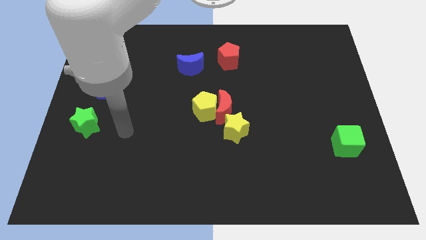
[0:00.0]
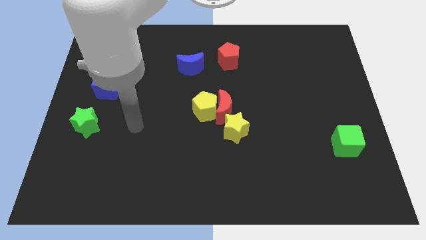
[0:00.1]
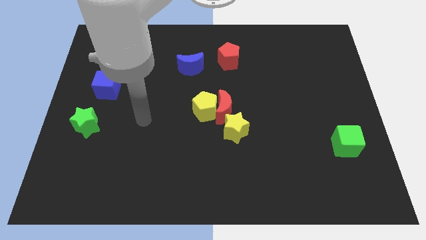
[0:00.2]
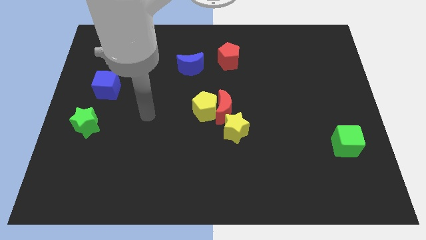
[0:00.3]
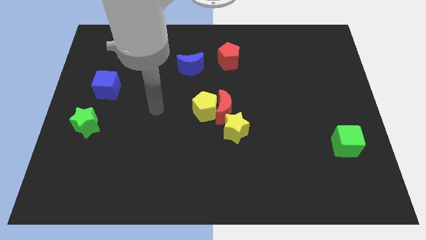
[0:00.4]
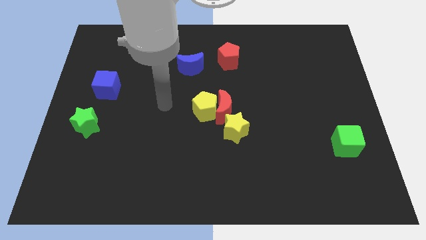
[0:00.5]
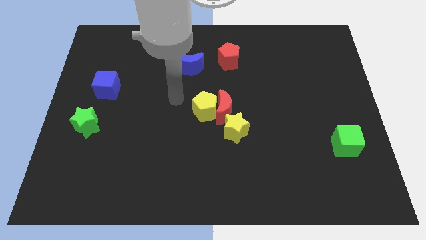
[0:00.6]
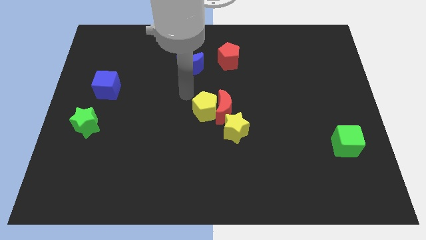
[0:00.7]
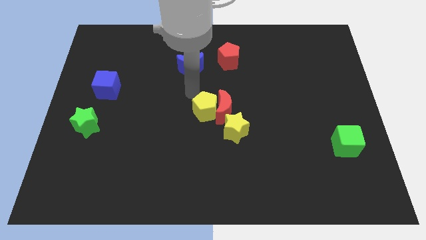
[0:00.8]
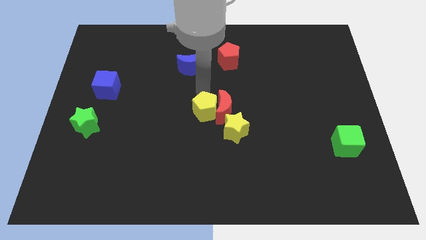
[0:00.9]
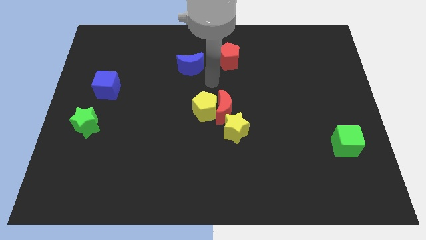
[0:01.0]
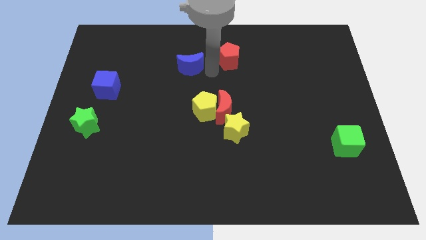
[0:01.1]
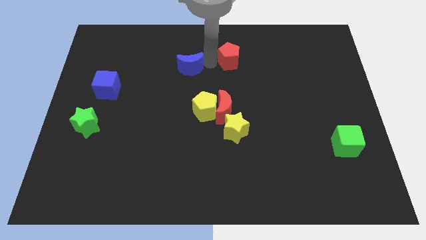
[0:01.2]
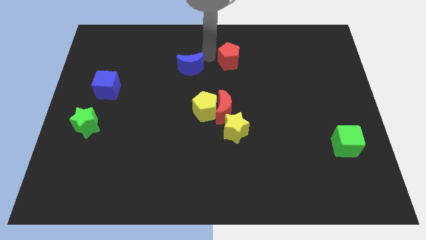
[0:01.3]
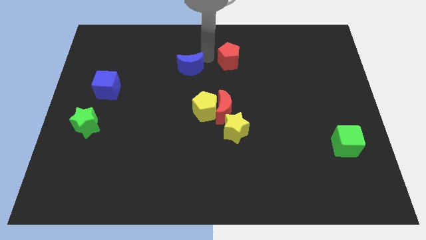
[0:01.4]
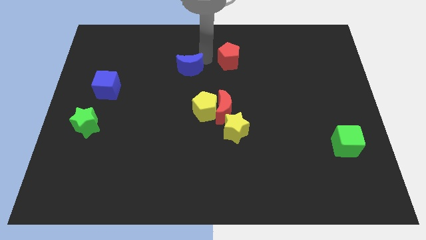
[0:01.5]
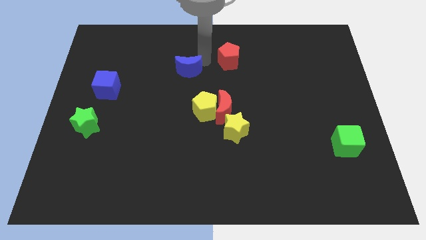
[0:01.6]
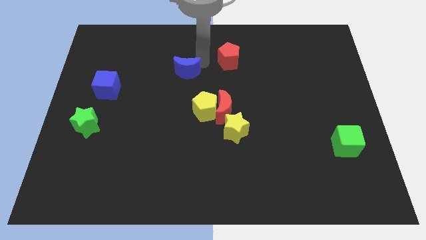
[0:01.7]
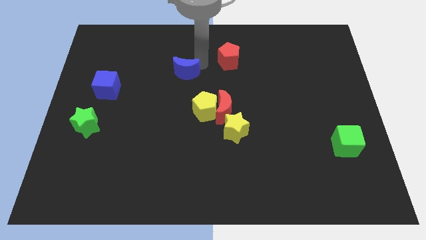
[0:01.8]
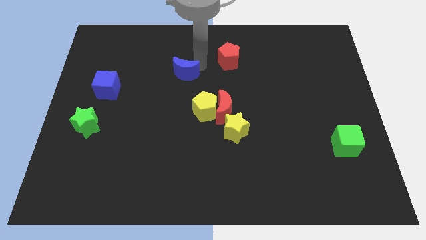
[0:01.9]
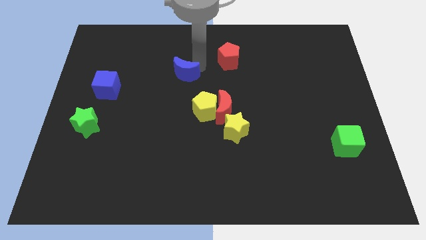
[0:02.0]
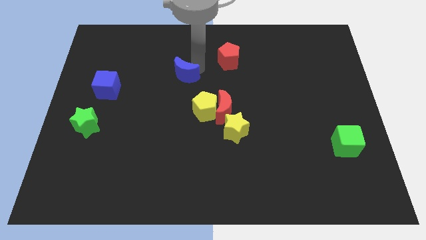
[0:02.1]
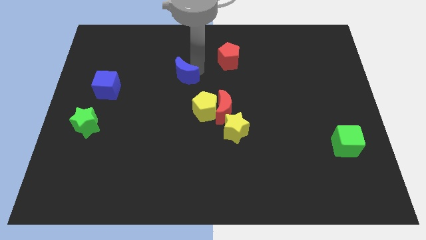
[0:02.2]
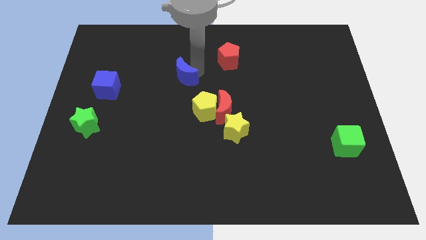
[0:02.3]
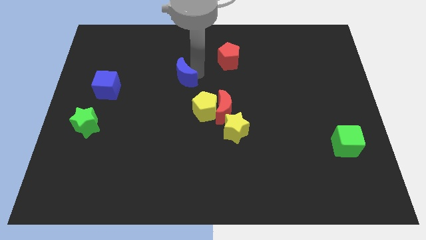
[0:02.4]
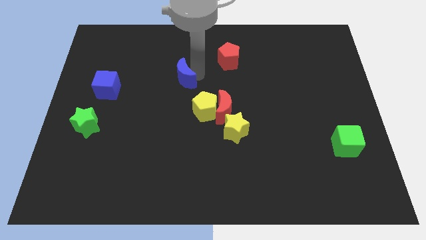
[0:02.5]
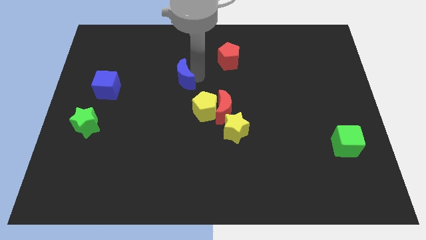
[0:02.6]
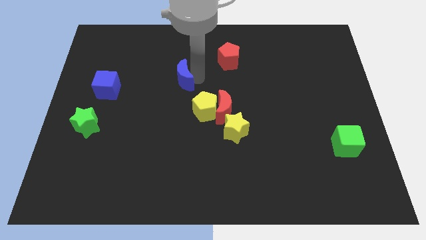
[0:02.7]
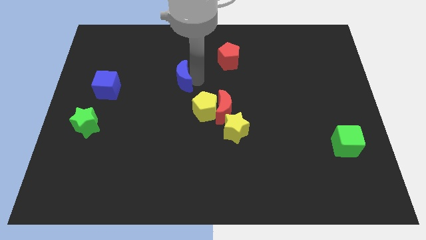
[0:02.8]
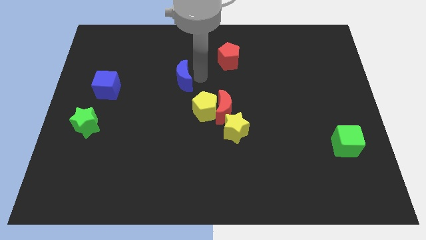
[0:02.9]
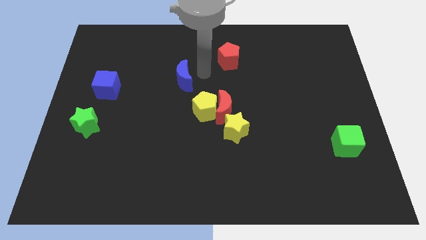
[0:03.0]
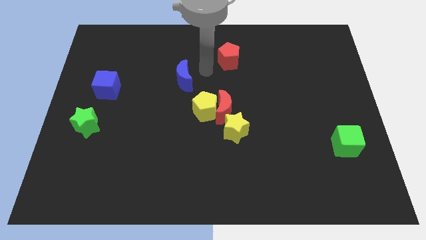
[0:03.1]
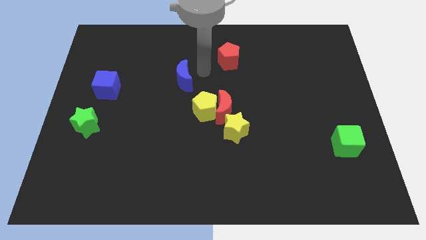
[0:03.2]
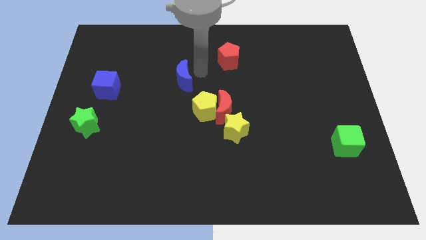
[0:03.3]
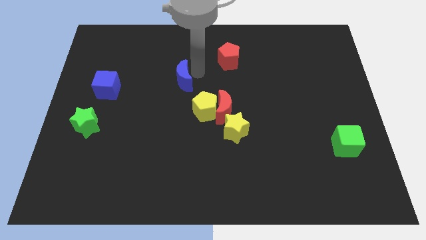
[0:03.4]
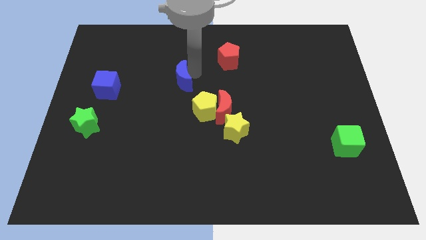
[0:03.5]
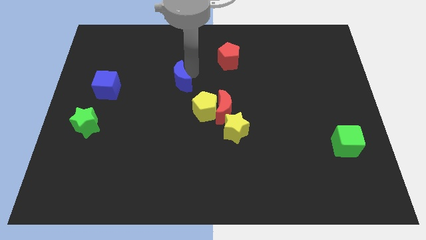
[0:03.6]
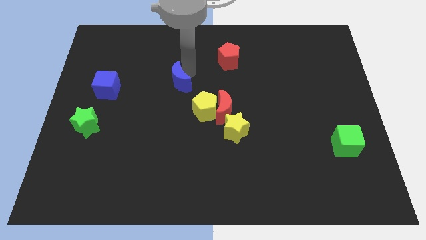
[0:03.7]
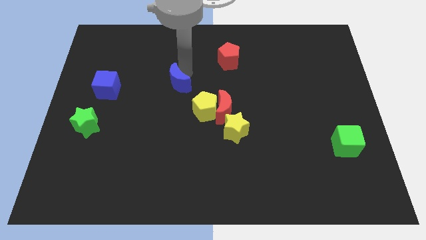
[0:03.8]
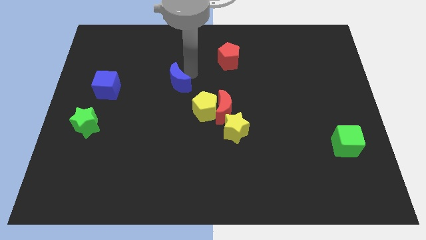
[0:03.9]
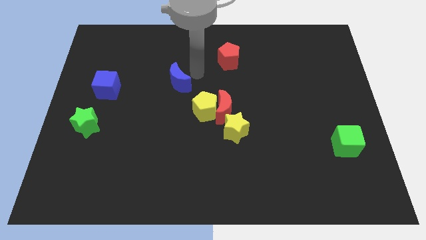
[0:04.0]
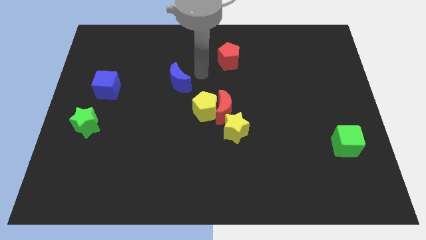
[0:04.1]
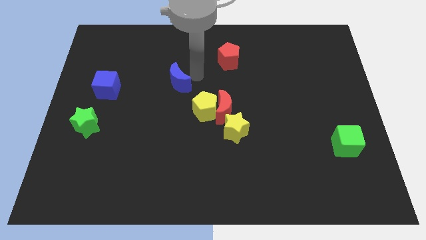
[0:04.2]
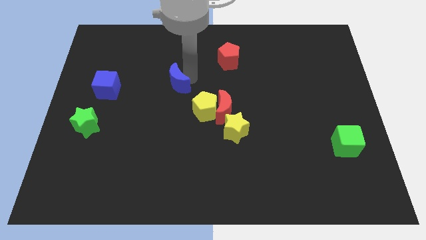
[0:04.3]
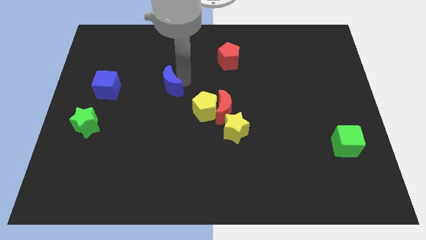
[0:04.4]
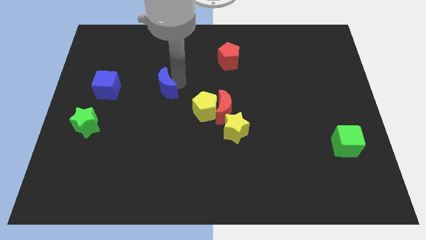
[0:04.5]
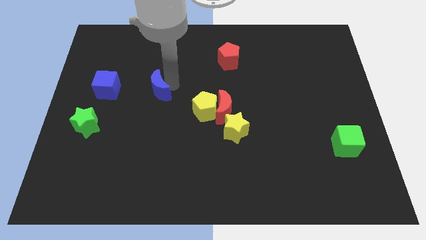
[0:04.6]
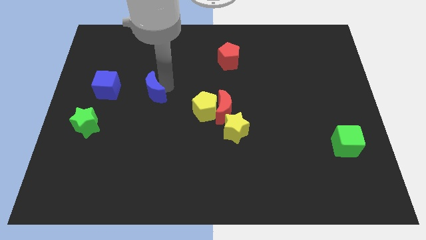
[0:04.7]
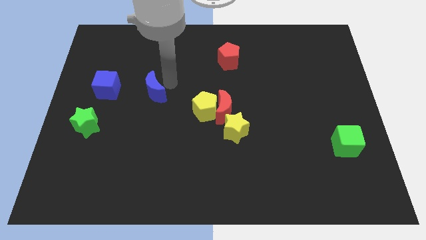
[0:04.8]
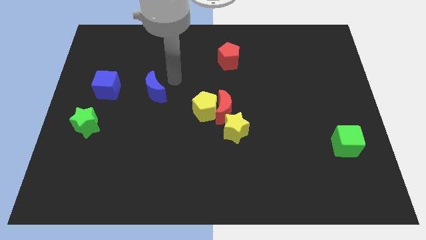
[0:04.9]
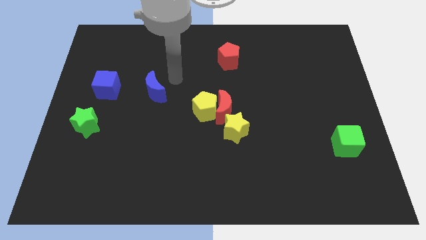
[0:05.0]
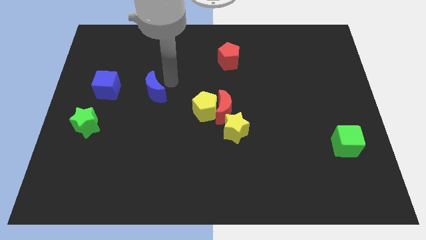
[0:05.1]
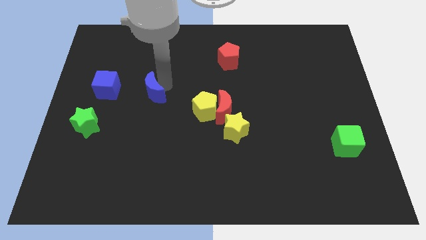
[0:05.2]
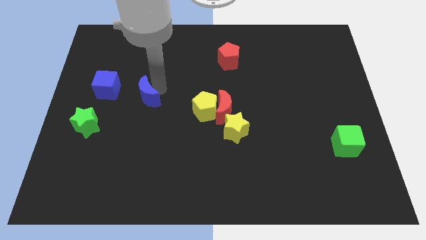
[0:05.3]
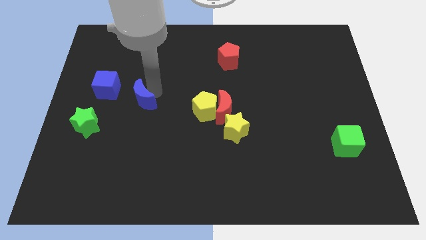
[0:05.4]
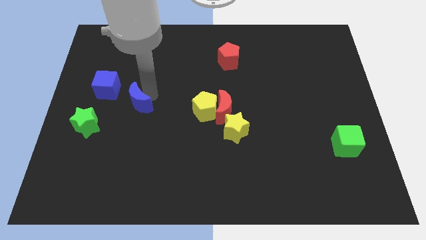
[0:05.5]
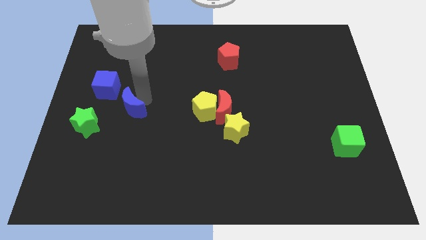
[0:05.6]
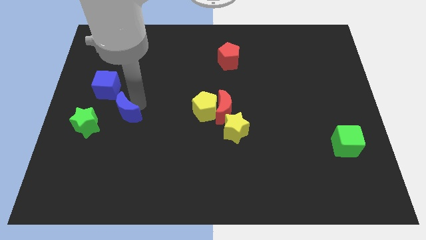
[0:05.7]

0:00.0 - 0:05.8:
slide the blue moon down and then left

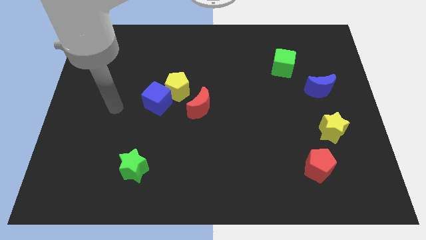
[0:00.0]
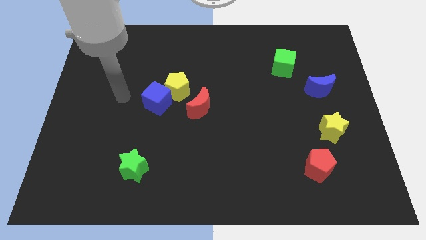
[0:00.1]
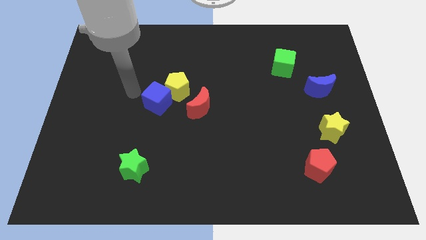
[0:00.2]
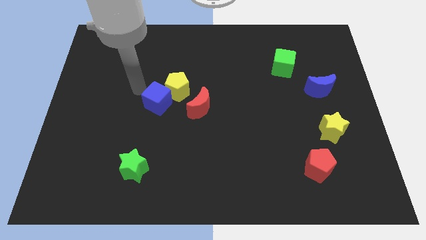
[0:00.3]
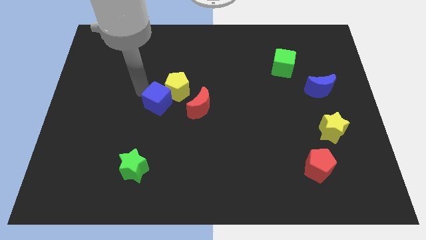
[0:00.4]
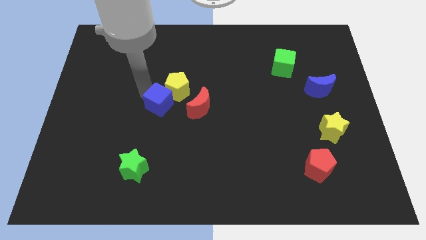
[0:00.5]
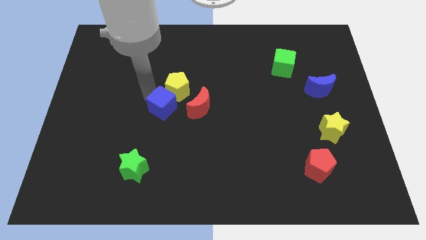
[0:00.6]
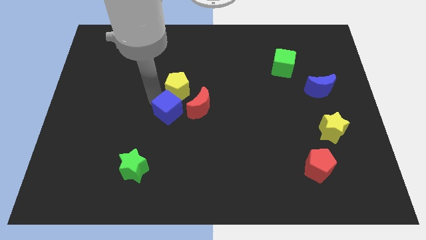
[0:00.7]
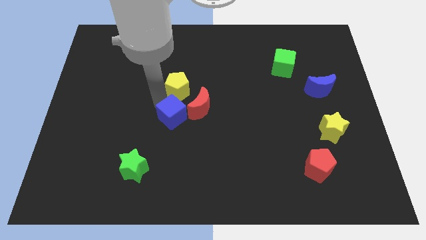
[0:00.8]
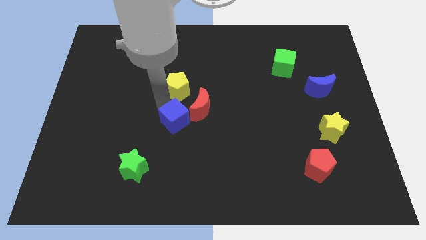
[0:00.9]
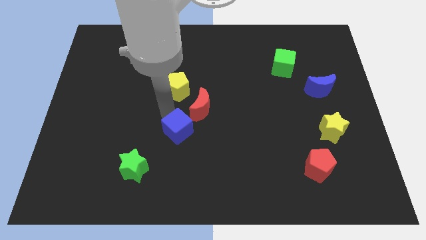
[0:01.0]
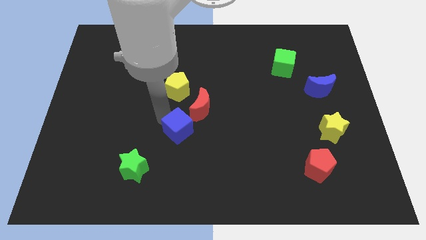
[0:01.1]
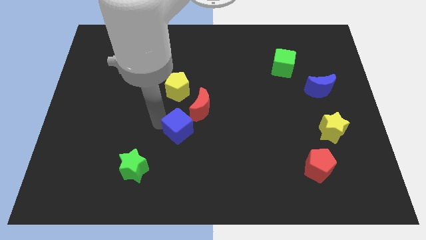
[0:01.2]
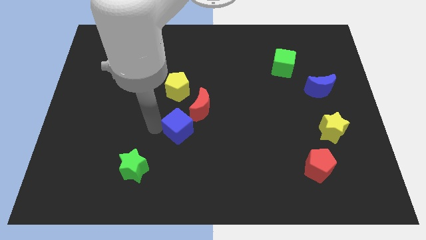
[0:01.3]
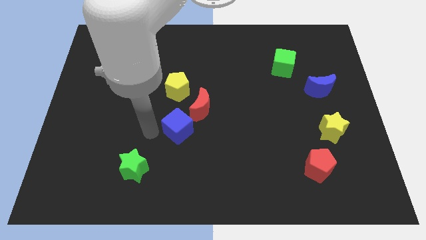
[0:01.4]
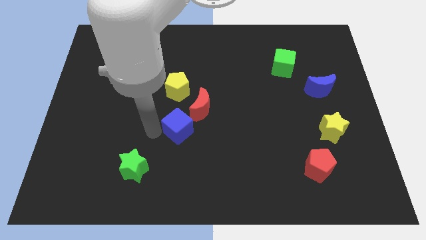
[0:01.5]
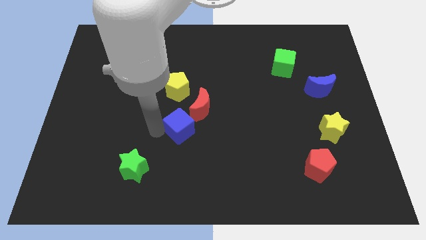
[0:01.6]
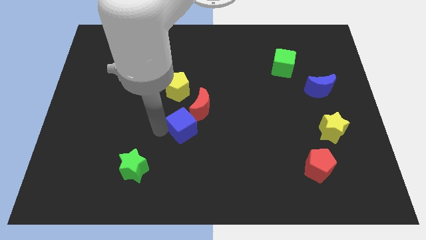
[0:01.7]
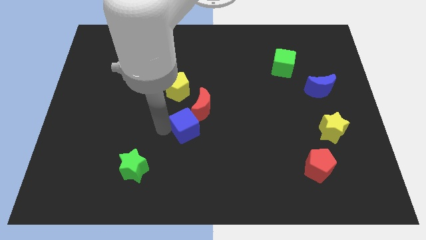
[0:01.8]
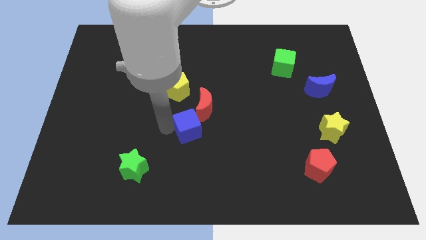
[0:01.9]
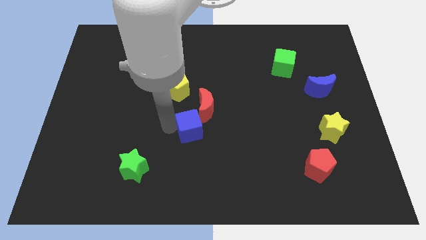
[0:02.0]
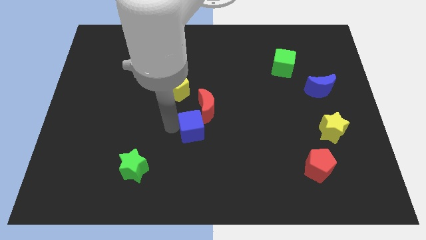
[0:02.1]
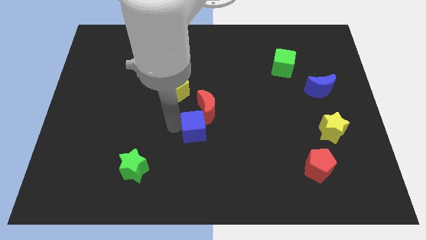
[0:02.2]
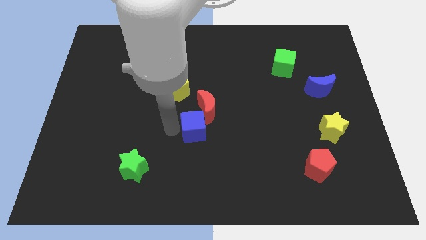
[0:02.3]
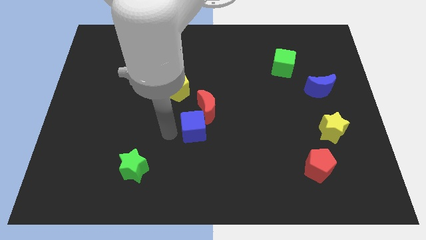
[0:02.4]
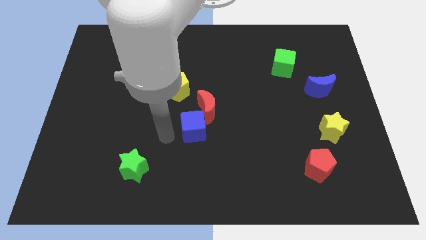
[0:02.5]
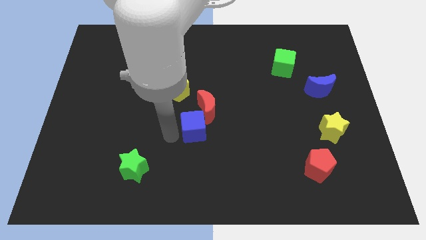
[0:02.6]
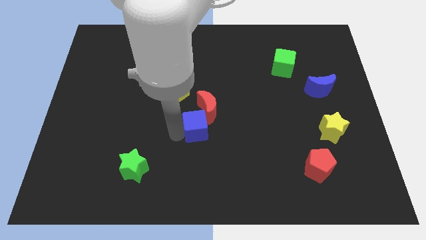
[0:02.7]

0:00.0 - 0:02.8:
push the blue cube a bit right
